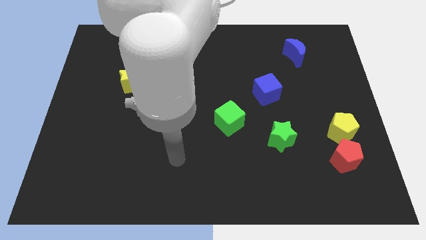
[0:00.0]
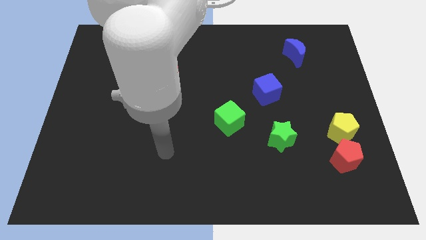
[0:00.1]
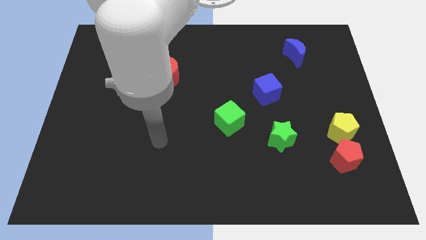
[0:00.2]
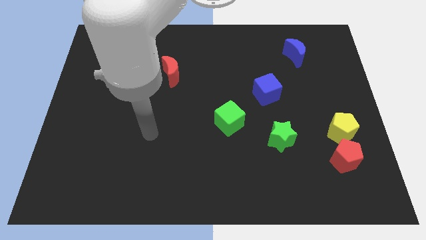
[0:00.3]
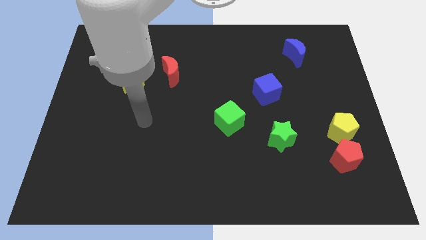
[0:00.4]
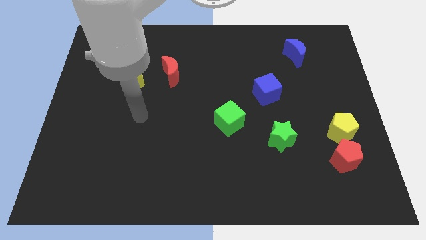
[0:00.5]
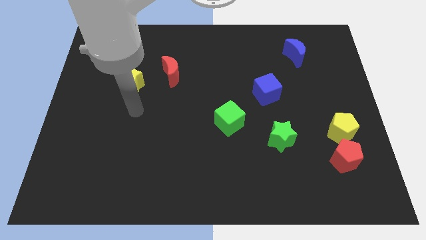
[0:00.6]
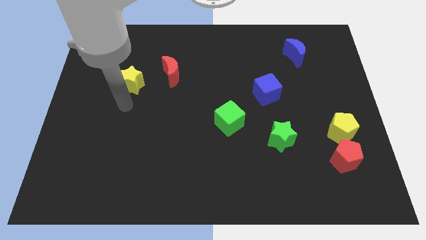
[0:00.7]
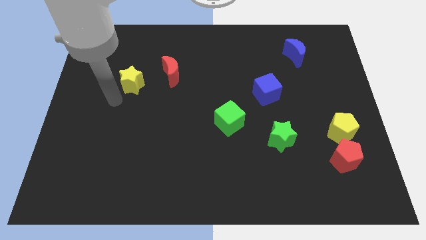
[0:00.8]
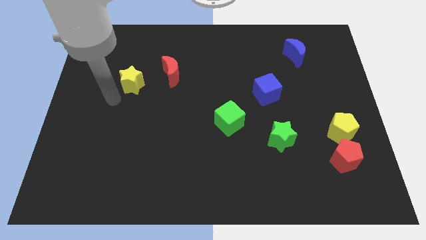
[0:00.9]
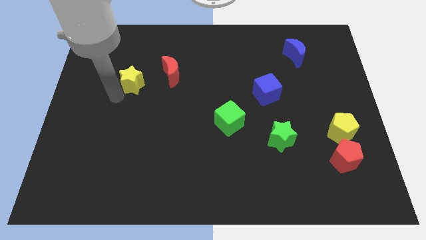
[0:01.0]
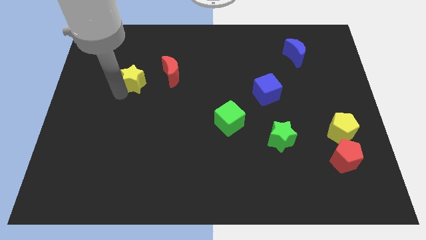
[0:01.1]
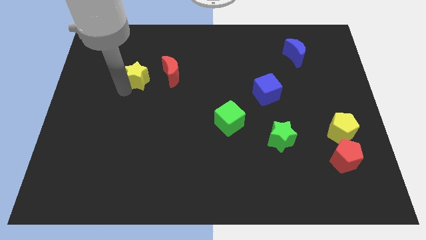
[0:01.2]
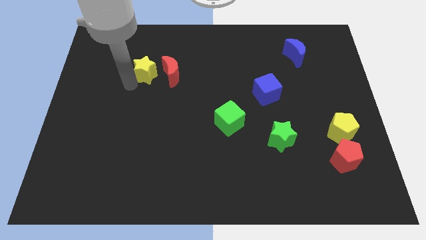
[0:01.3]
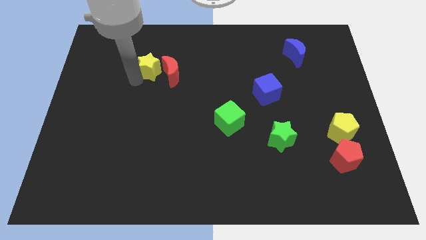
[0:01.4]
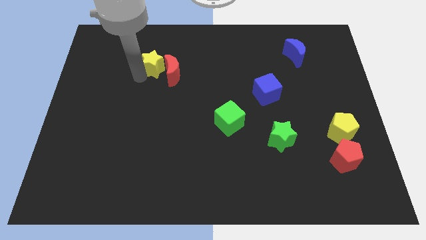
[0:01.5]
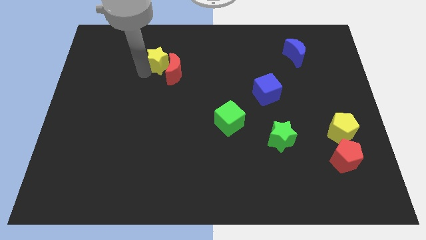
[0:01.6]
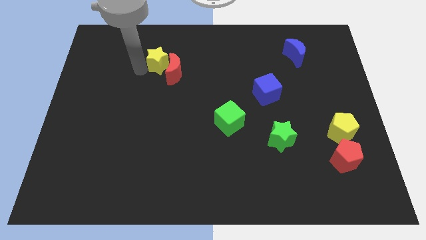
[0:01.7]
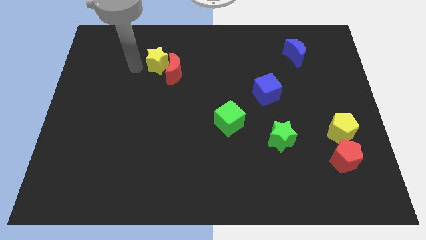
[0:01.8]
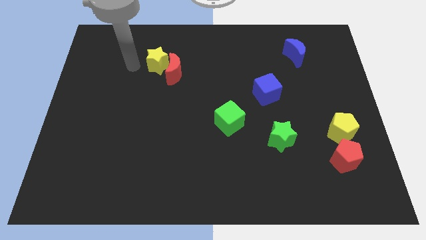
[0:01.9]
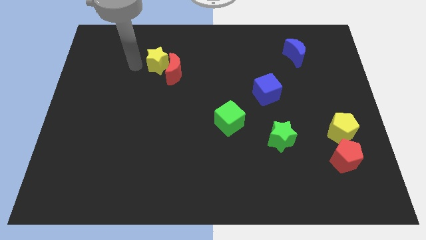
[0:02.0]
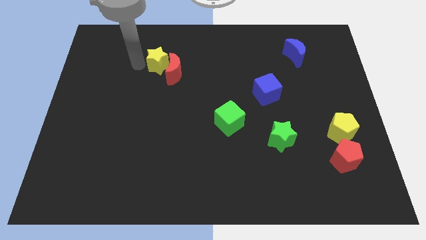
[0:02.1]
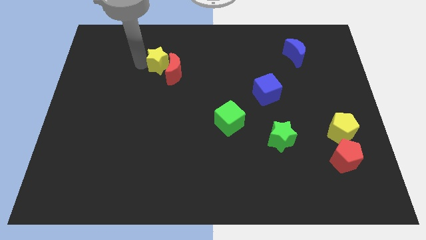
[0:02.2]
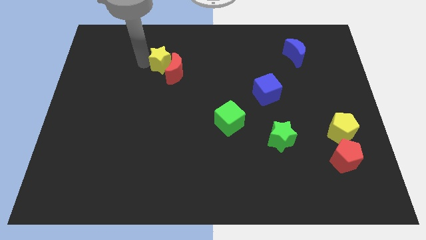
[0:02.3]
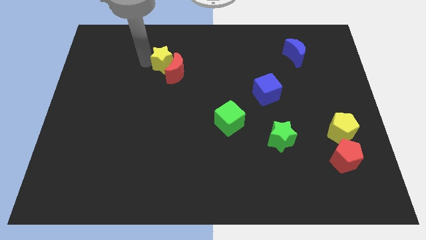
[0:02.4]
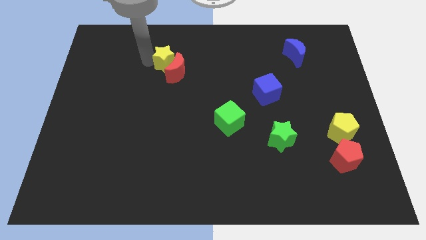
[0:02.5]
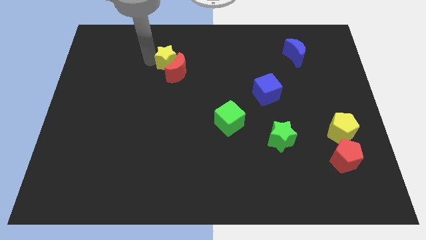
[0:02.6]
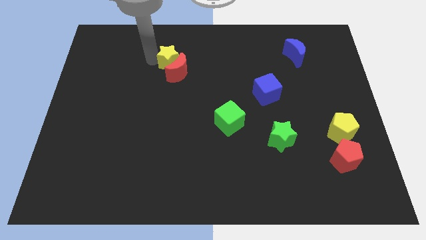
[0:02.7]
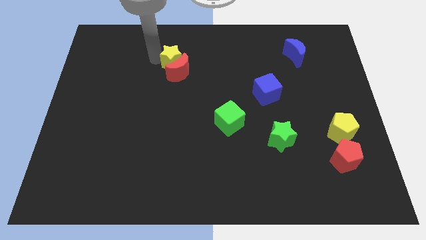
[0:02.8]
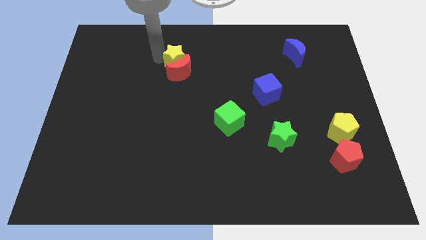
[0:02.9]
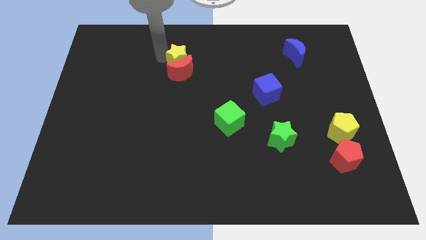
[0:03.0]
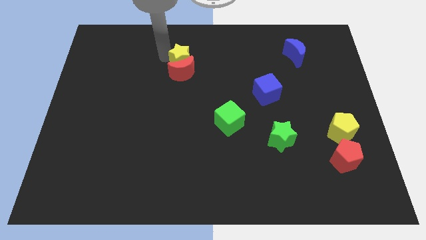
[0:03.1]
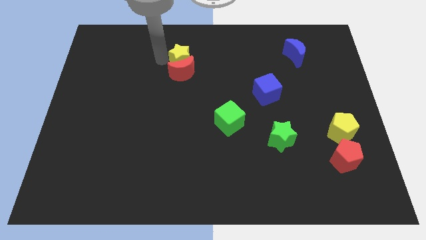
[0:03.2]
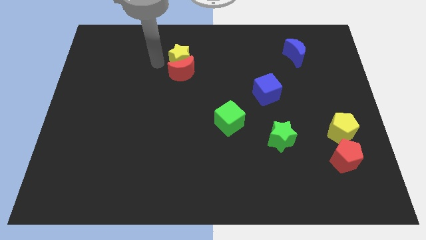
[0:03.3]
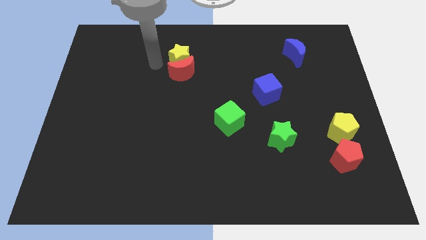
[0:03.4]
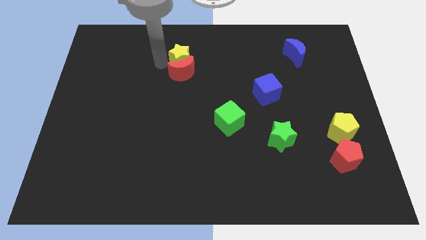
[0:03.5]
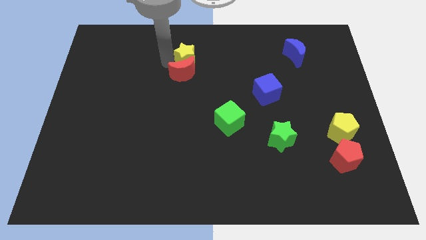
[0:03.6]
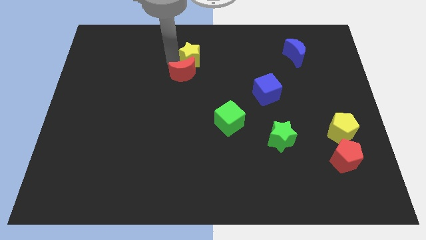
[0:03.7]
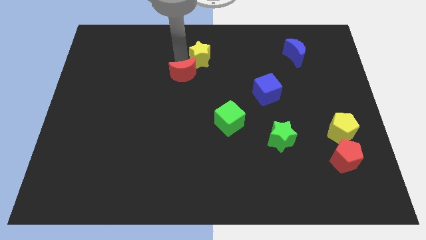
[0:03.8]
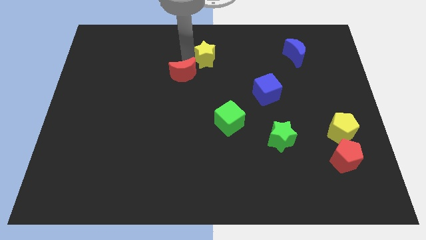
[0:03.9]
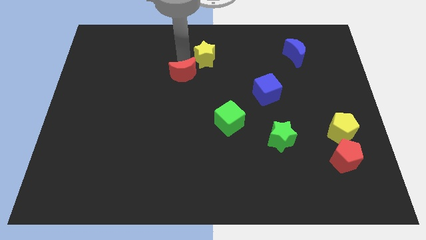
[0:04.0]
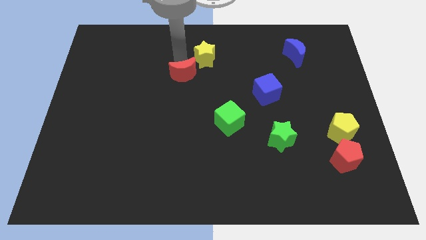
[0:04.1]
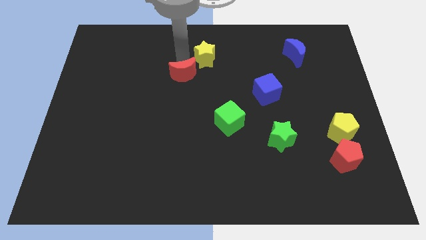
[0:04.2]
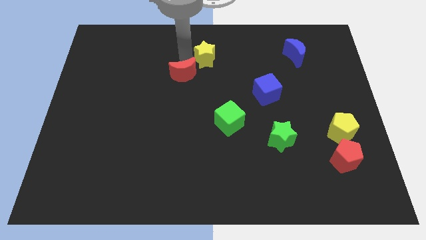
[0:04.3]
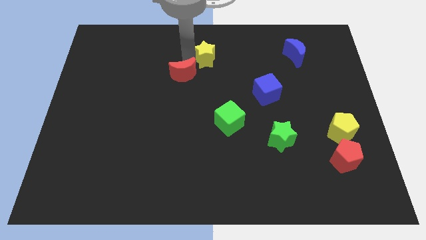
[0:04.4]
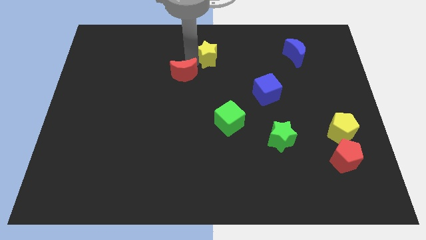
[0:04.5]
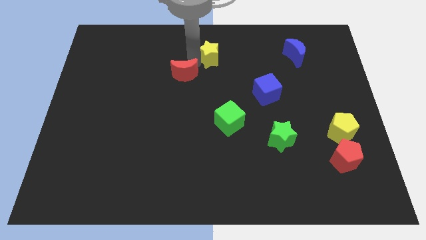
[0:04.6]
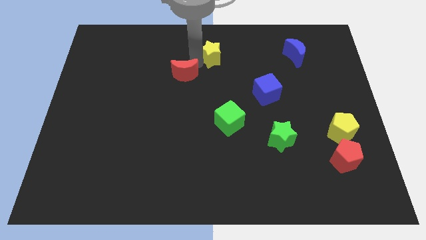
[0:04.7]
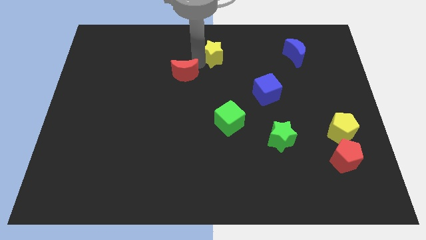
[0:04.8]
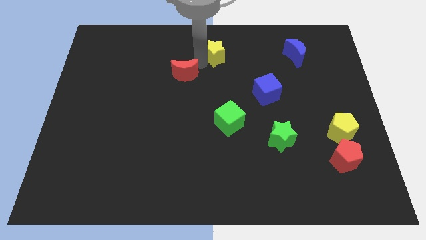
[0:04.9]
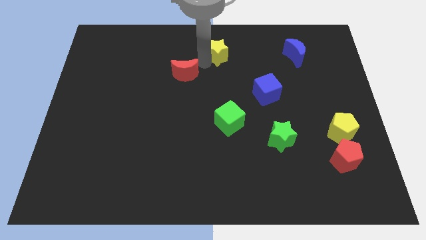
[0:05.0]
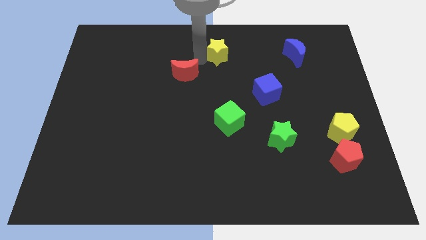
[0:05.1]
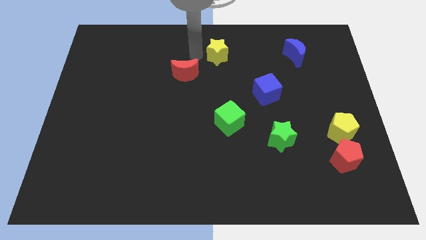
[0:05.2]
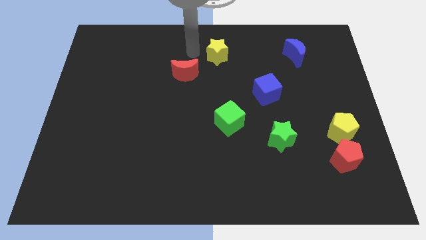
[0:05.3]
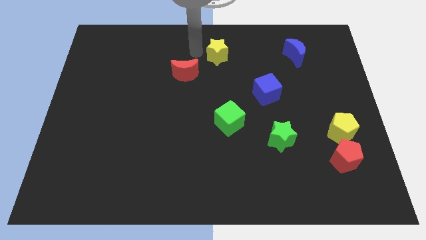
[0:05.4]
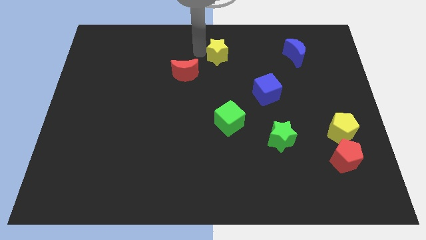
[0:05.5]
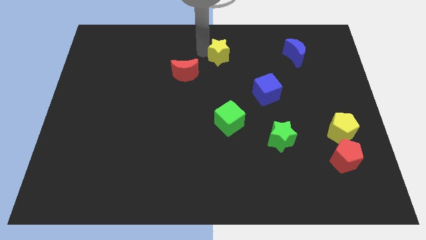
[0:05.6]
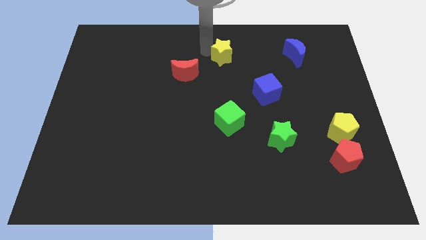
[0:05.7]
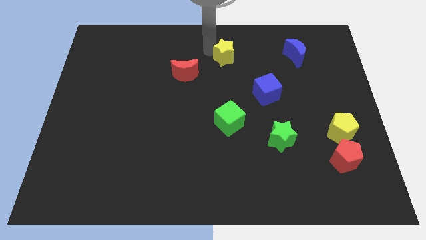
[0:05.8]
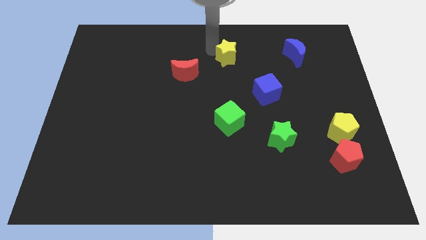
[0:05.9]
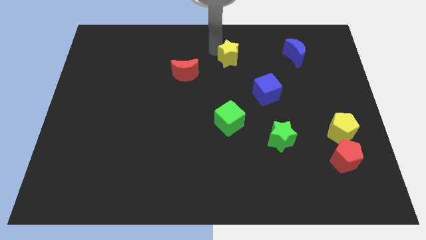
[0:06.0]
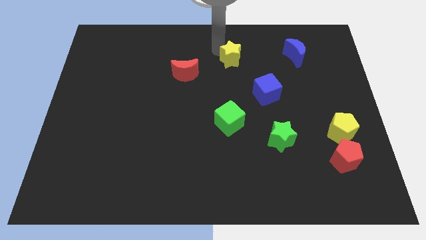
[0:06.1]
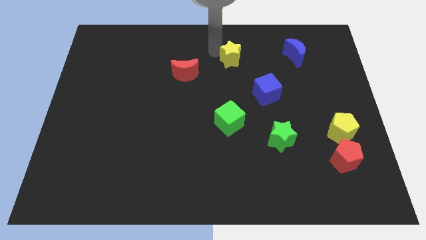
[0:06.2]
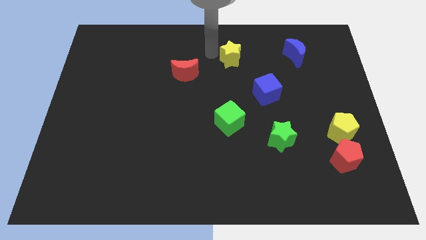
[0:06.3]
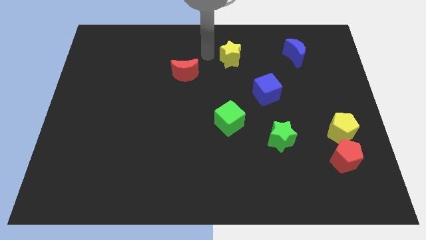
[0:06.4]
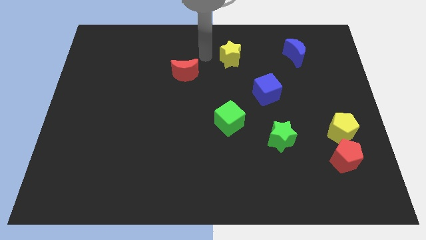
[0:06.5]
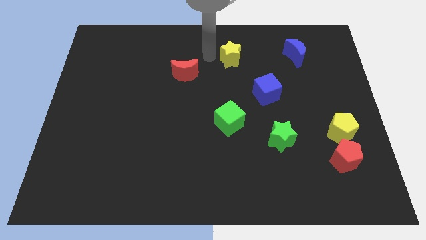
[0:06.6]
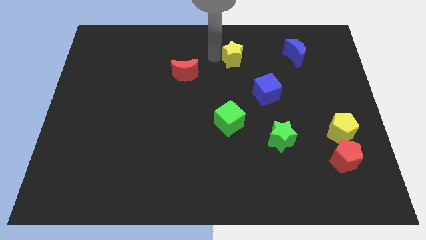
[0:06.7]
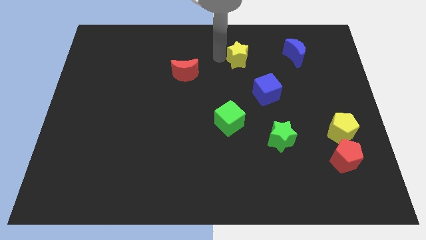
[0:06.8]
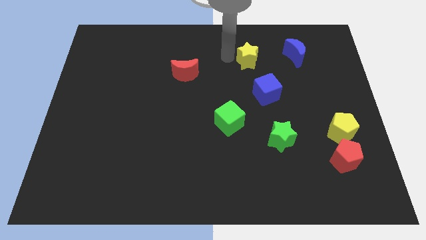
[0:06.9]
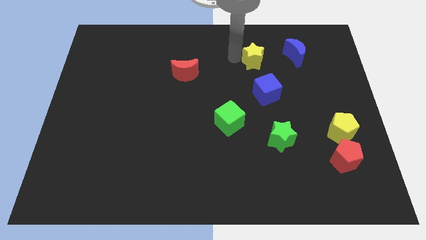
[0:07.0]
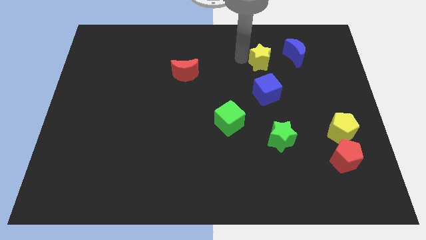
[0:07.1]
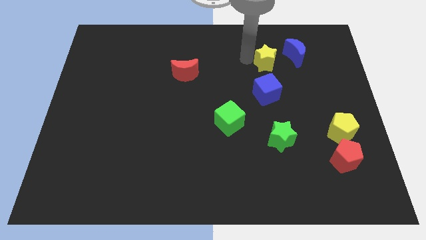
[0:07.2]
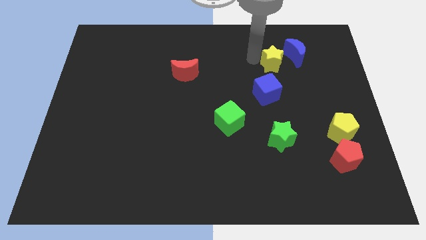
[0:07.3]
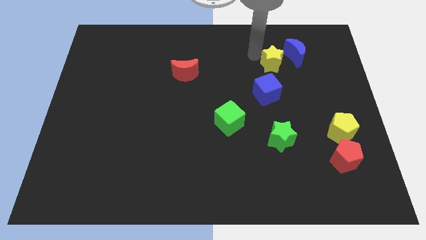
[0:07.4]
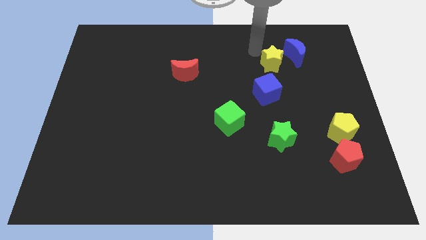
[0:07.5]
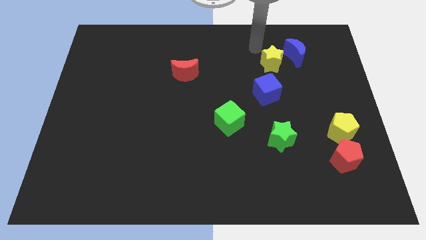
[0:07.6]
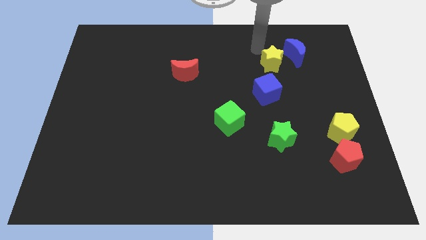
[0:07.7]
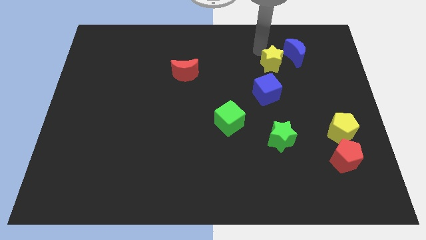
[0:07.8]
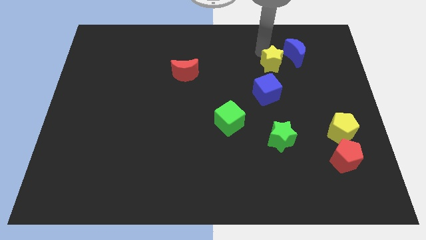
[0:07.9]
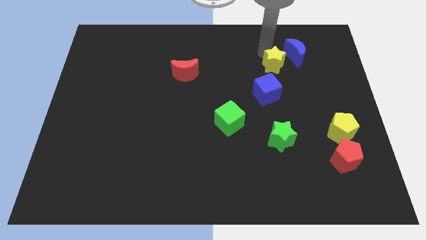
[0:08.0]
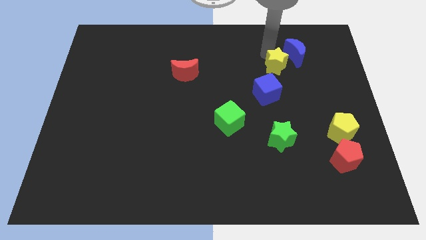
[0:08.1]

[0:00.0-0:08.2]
push the yellow star diagonally up and to the right of the blue cube
